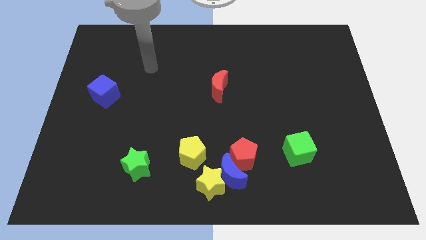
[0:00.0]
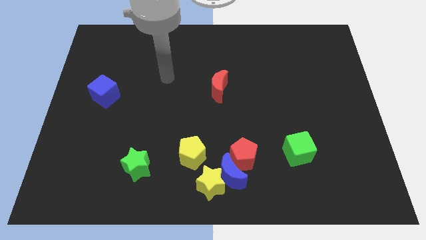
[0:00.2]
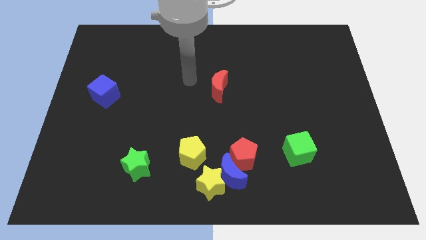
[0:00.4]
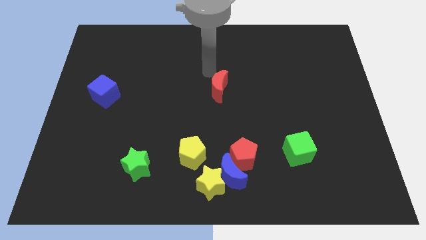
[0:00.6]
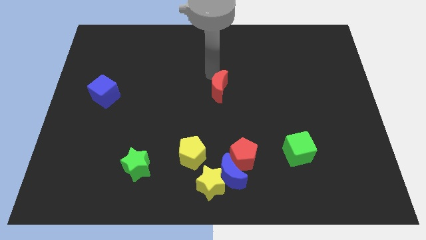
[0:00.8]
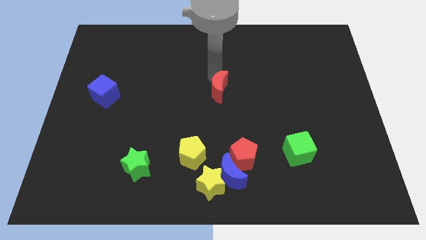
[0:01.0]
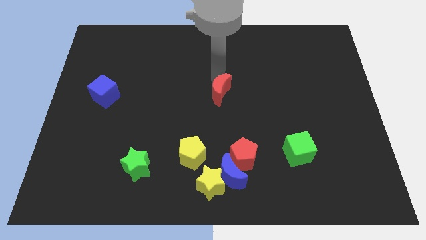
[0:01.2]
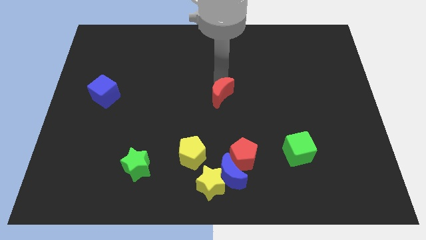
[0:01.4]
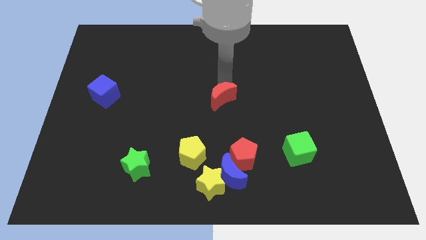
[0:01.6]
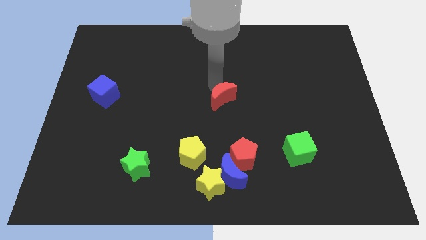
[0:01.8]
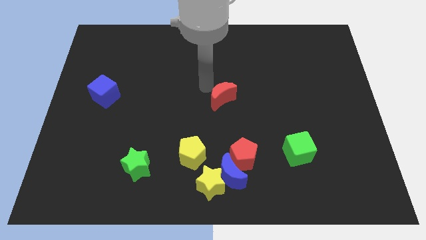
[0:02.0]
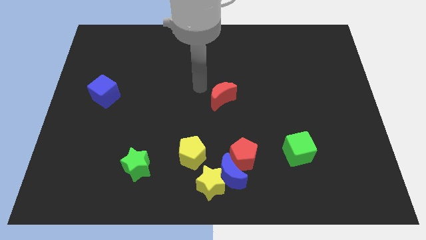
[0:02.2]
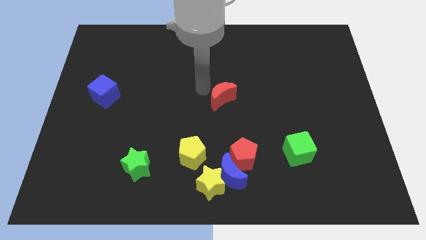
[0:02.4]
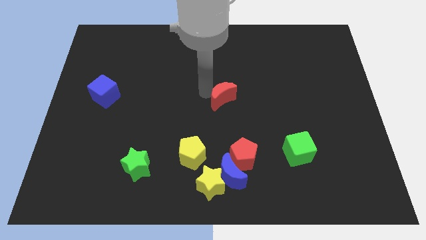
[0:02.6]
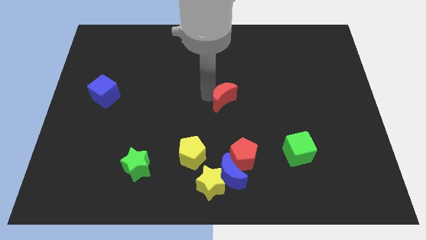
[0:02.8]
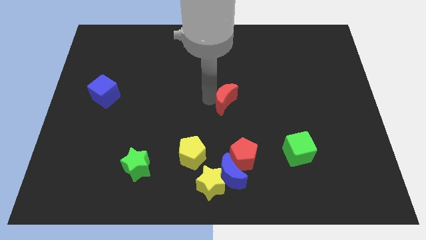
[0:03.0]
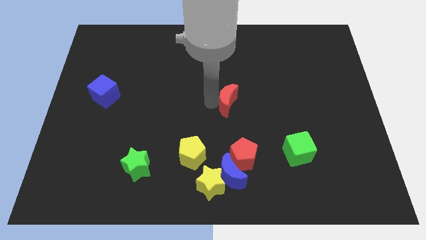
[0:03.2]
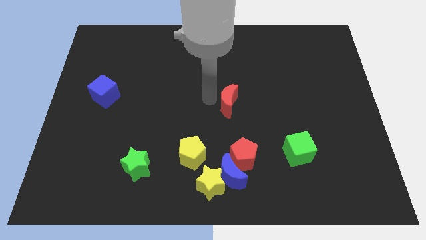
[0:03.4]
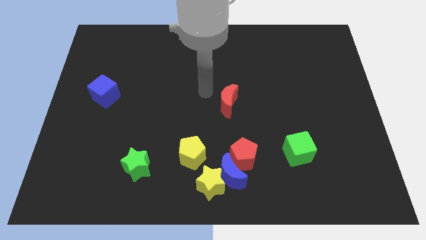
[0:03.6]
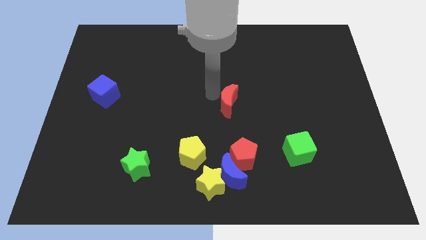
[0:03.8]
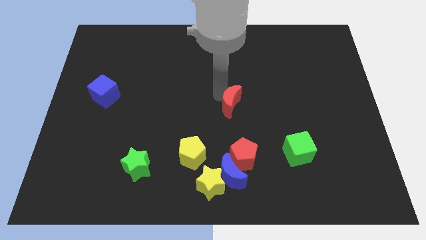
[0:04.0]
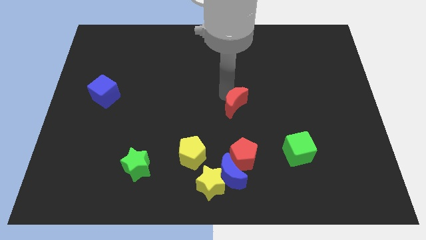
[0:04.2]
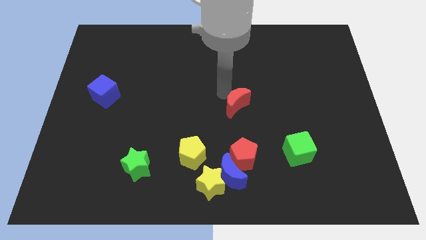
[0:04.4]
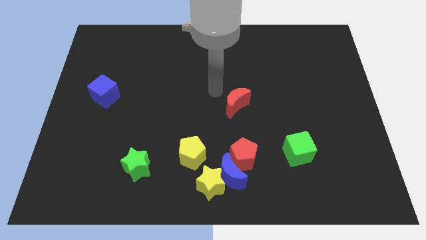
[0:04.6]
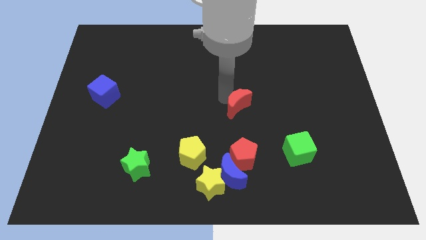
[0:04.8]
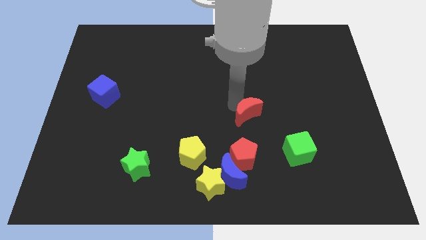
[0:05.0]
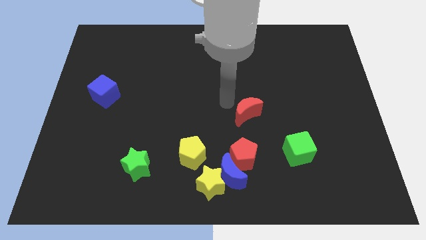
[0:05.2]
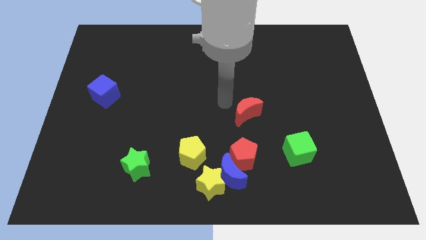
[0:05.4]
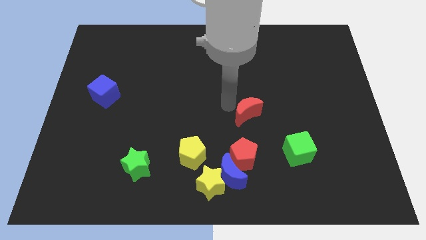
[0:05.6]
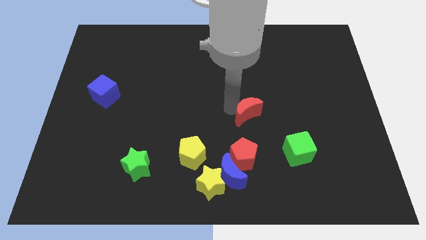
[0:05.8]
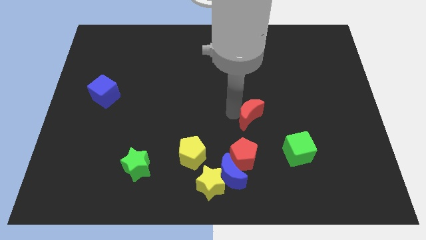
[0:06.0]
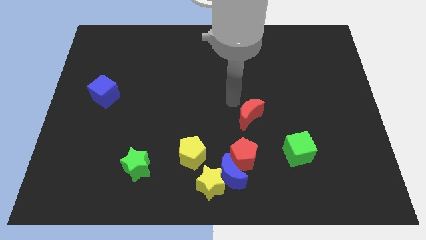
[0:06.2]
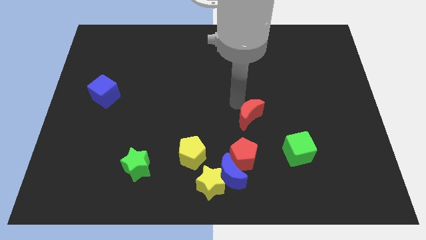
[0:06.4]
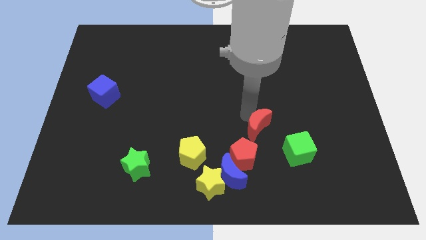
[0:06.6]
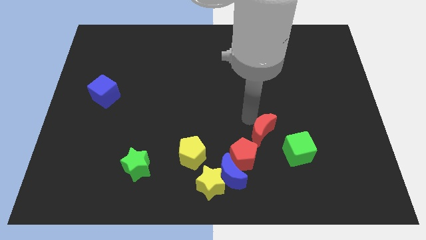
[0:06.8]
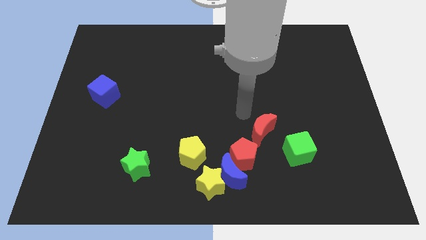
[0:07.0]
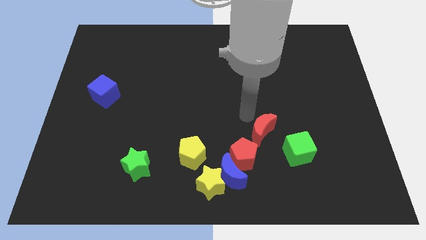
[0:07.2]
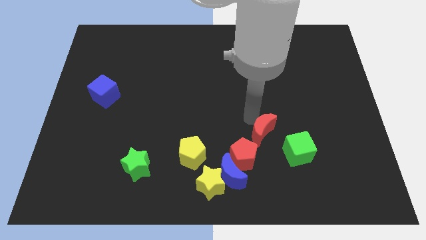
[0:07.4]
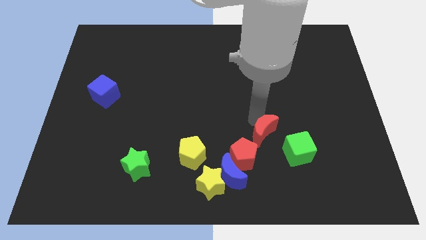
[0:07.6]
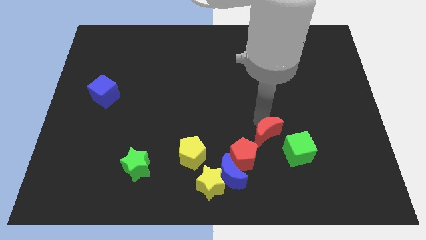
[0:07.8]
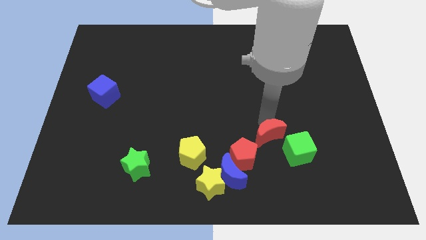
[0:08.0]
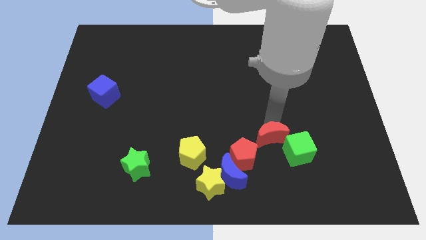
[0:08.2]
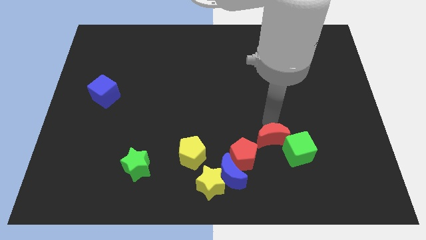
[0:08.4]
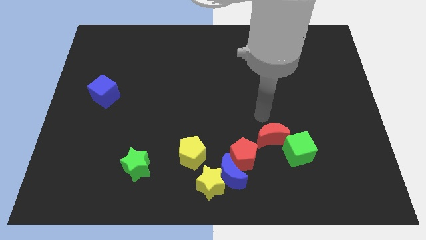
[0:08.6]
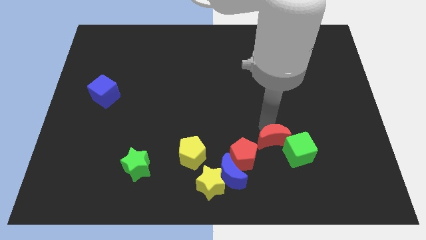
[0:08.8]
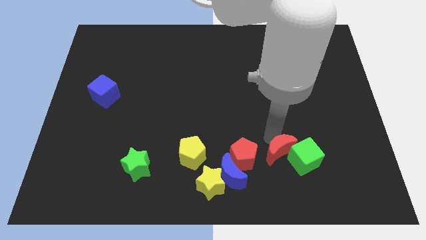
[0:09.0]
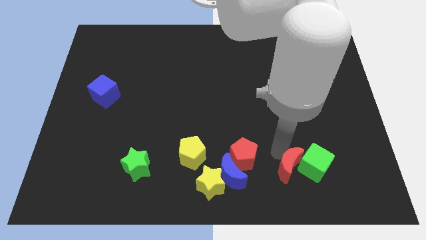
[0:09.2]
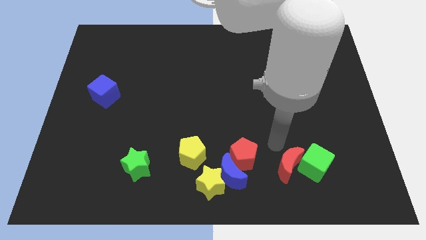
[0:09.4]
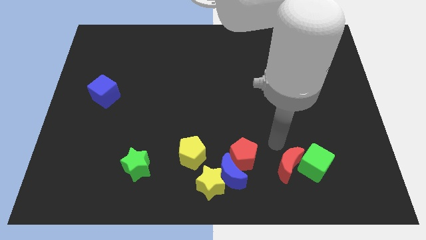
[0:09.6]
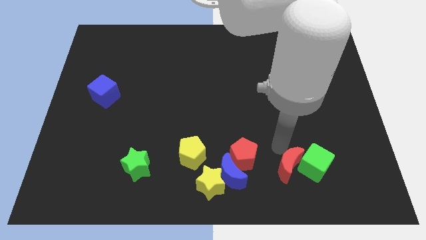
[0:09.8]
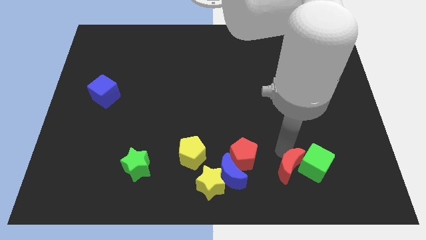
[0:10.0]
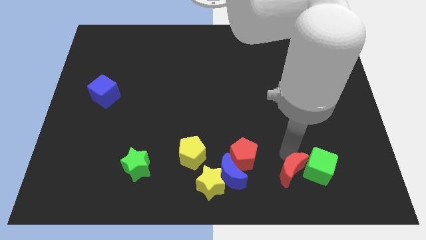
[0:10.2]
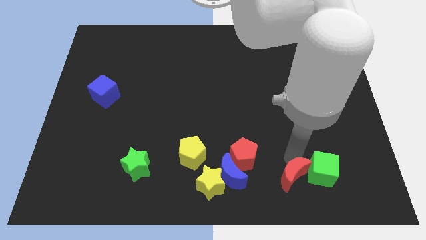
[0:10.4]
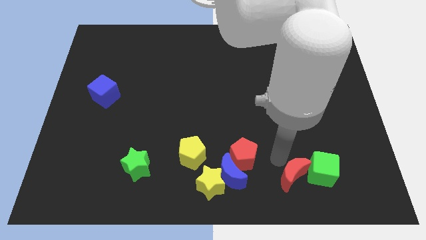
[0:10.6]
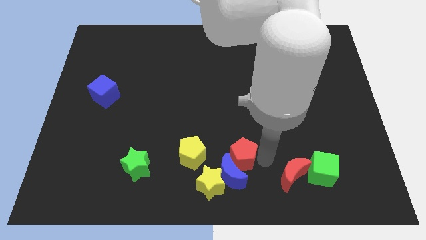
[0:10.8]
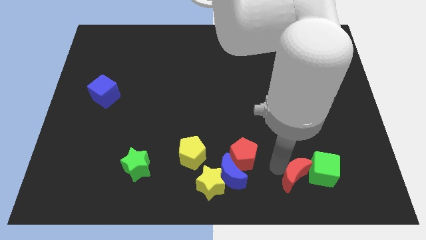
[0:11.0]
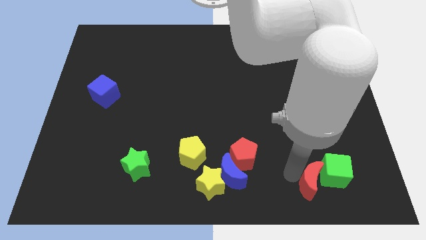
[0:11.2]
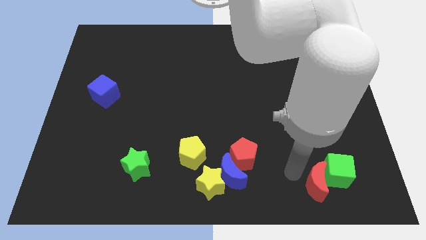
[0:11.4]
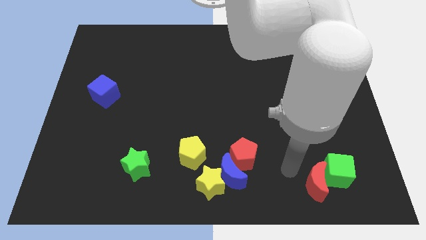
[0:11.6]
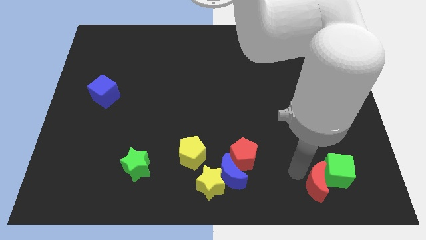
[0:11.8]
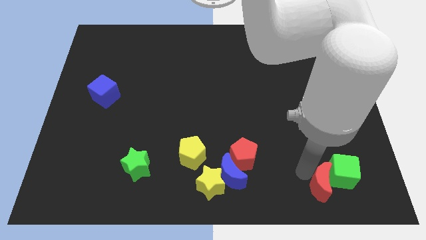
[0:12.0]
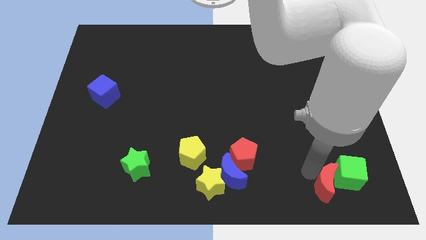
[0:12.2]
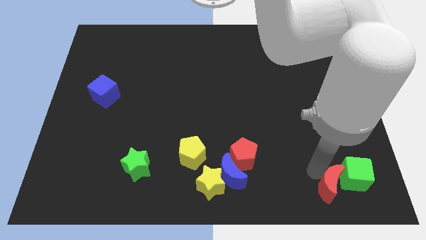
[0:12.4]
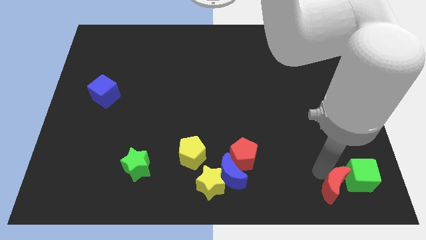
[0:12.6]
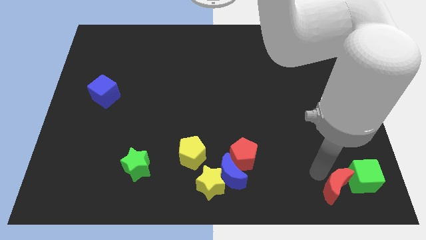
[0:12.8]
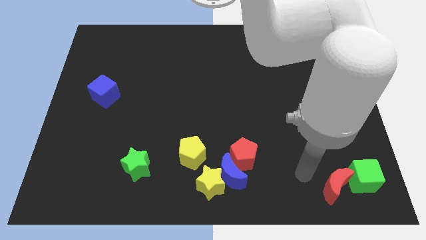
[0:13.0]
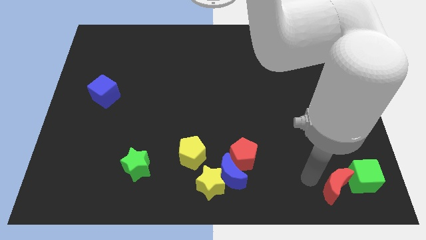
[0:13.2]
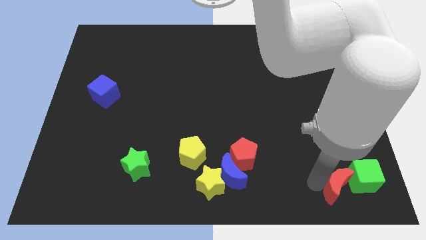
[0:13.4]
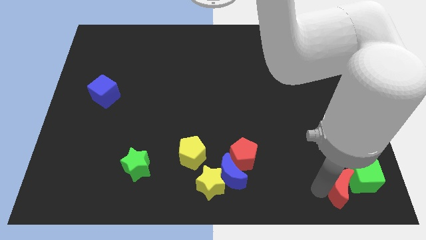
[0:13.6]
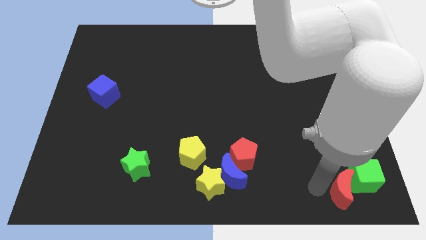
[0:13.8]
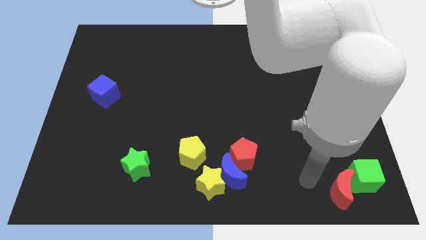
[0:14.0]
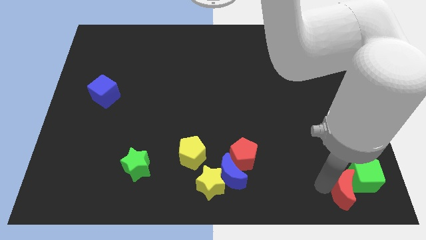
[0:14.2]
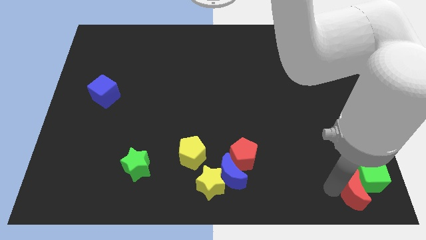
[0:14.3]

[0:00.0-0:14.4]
push the red moon to the bottom right of the board
